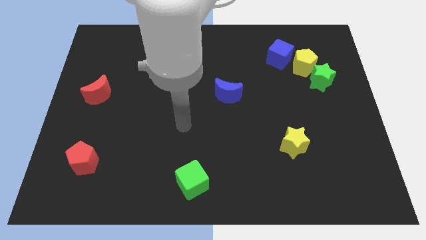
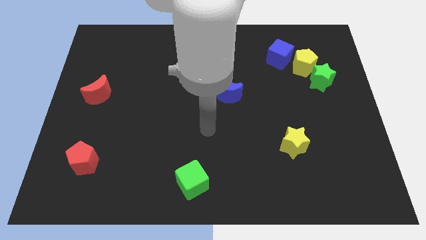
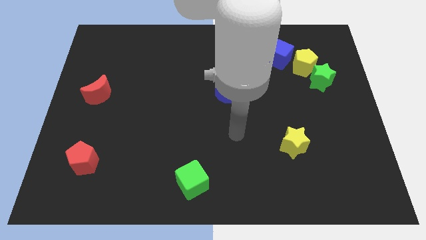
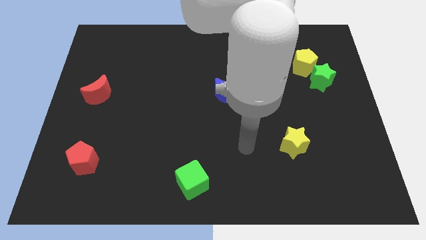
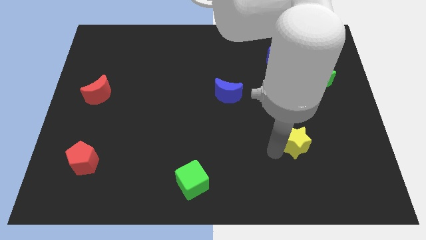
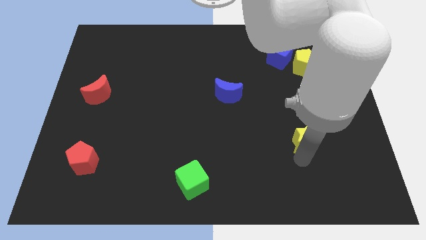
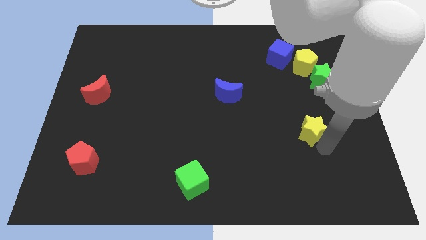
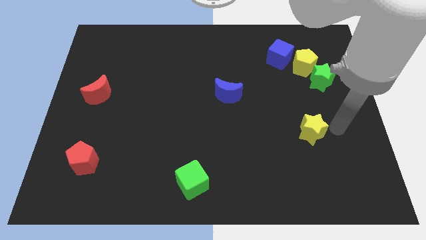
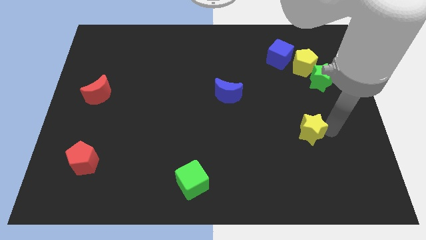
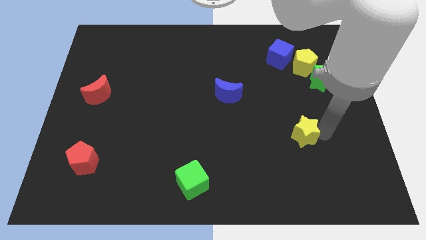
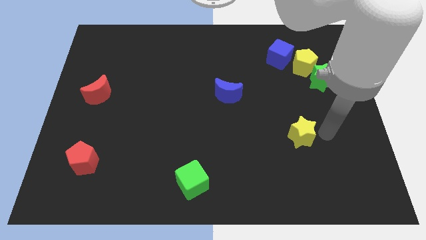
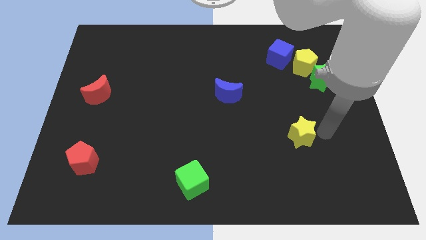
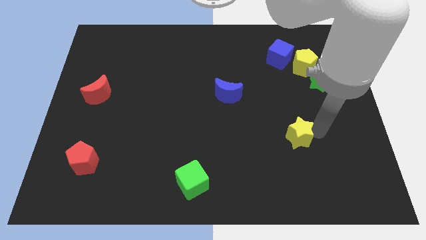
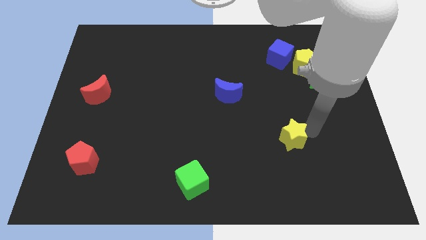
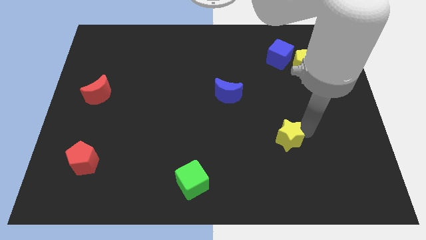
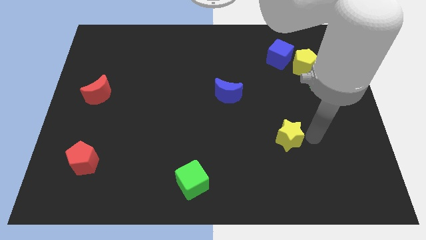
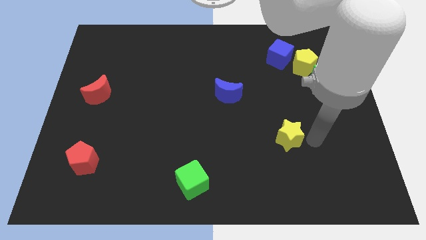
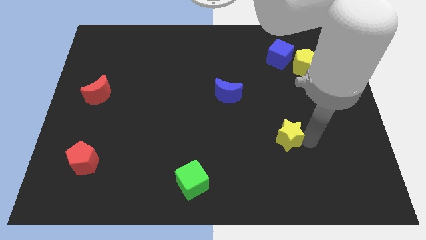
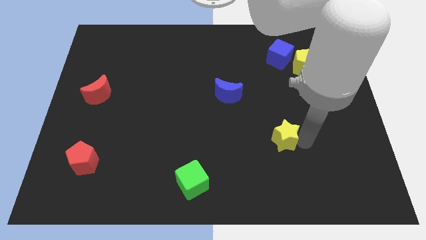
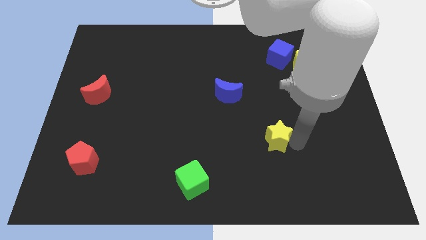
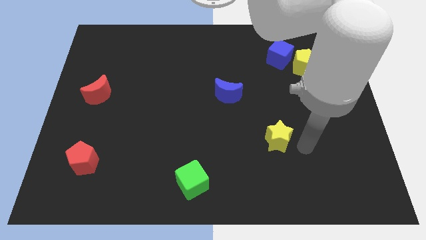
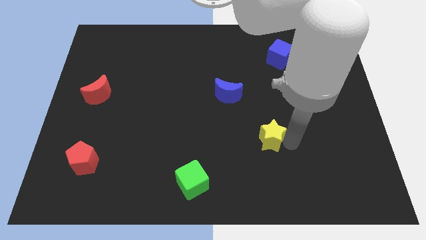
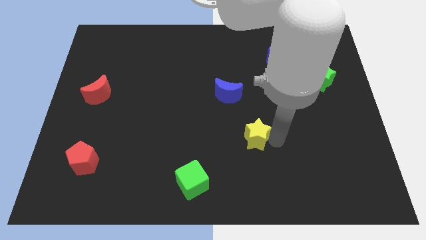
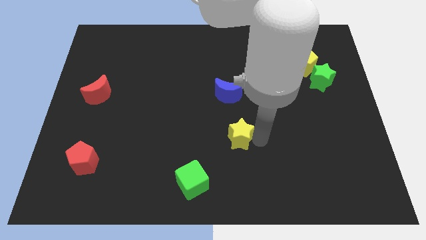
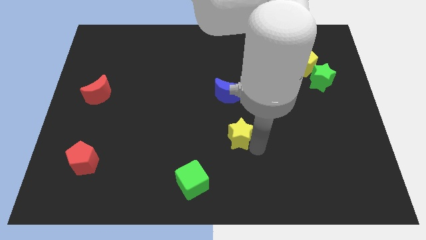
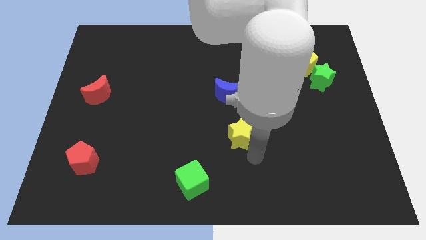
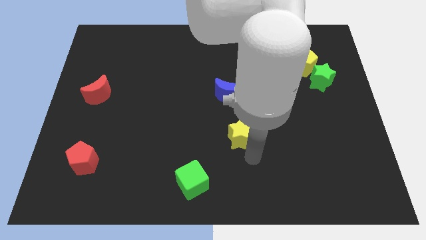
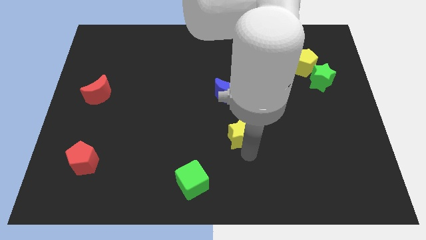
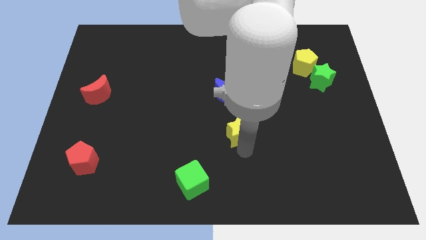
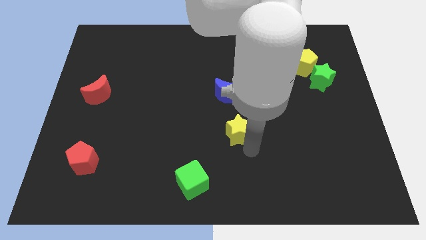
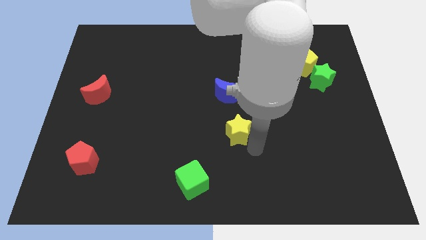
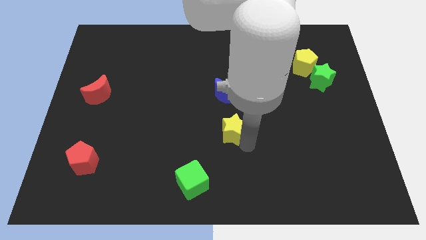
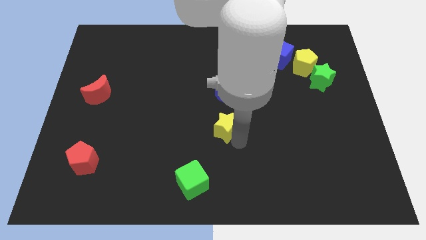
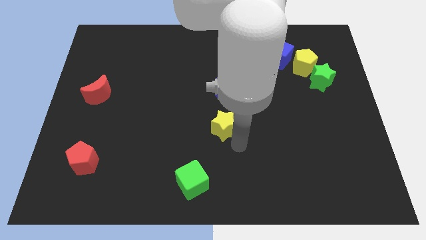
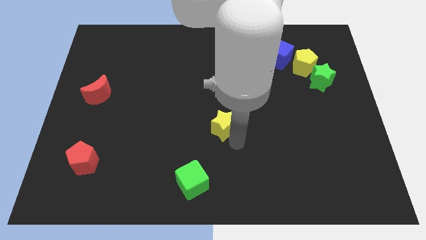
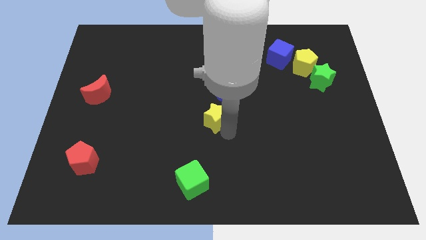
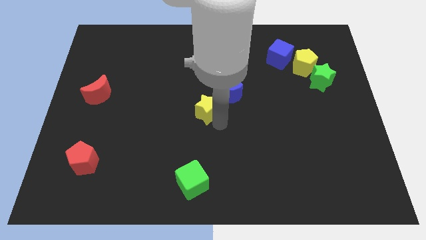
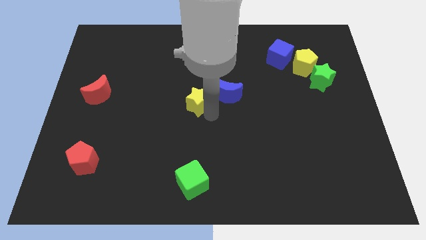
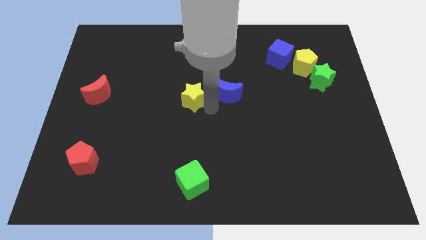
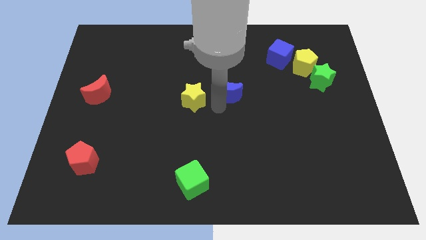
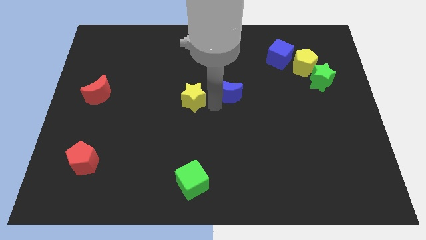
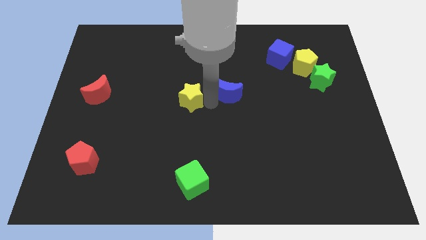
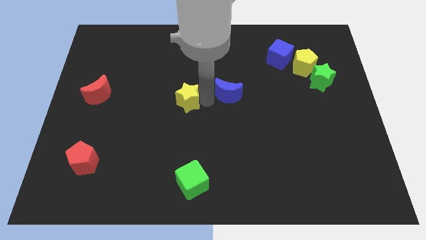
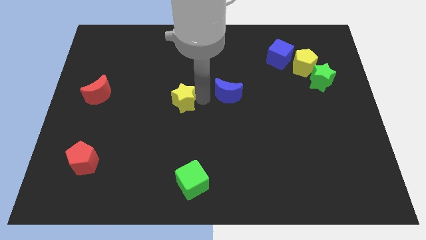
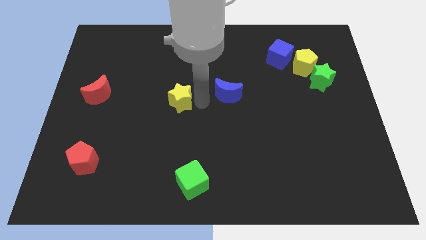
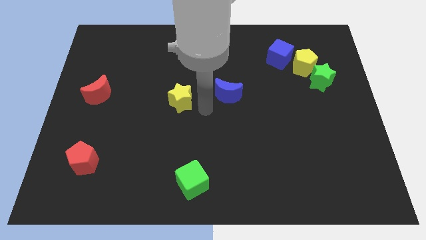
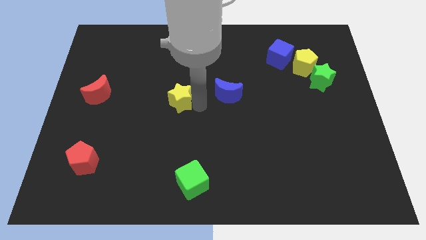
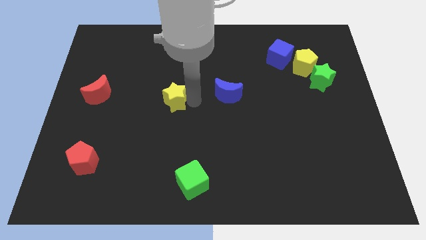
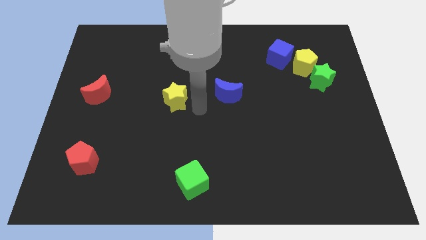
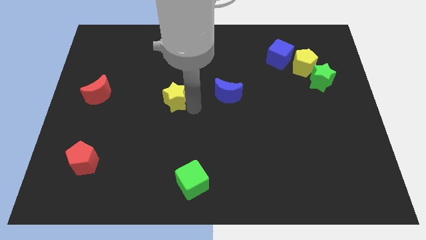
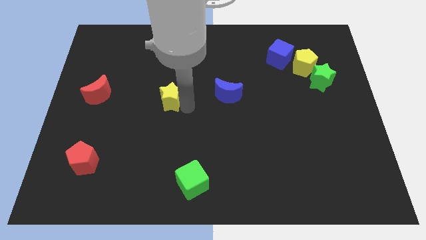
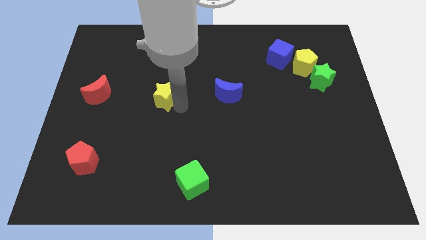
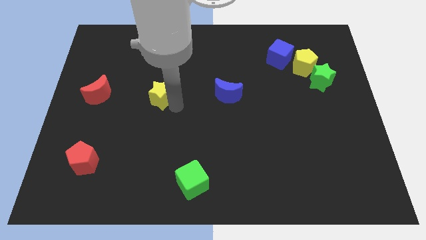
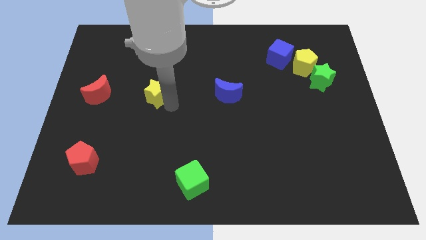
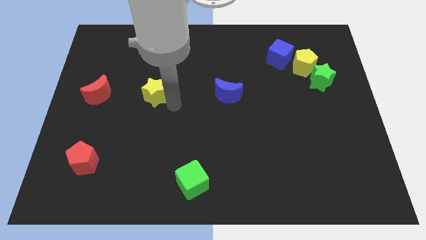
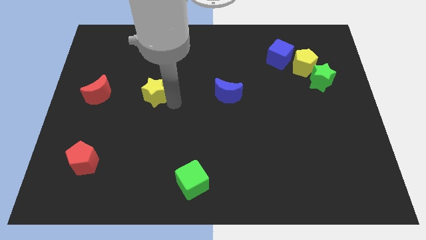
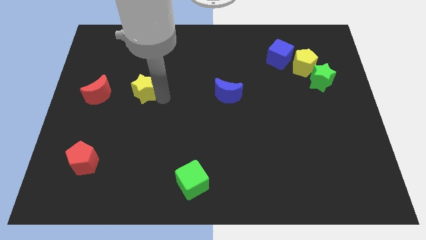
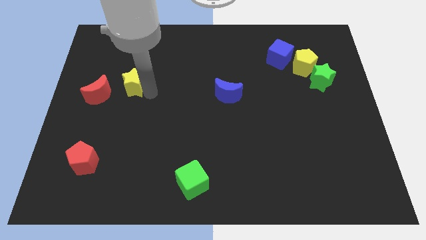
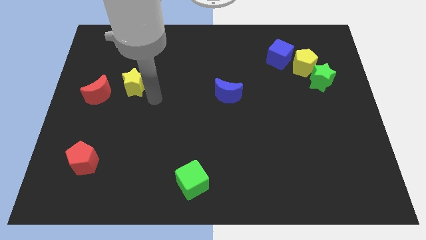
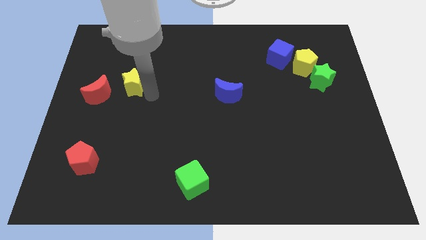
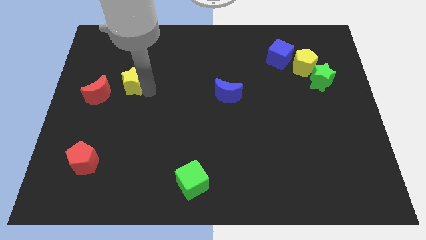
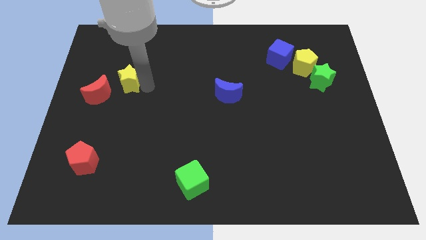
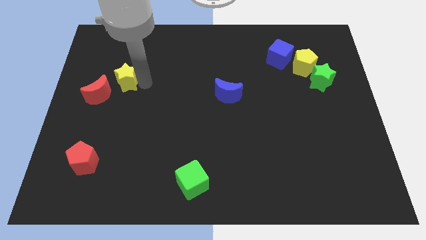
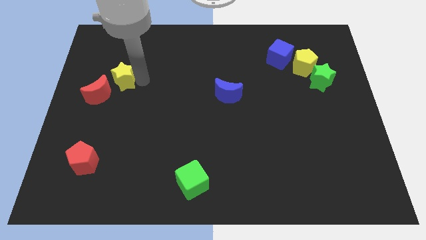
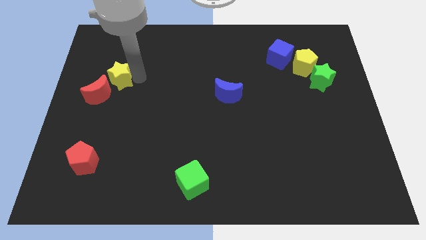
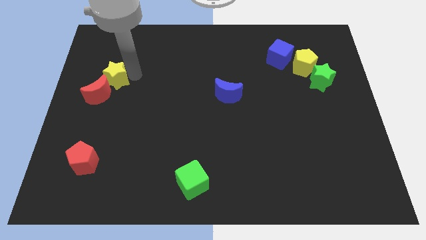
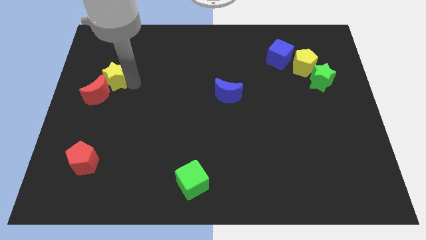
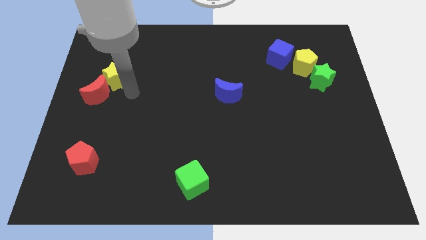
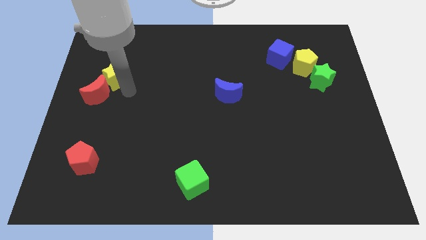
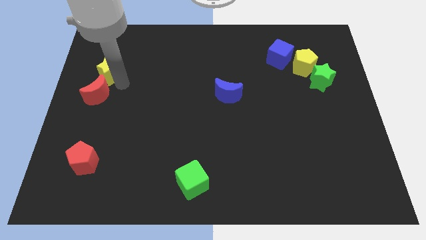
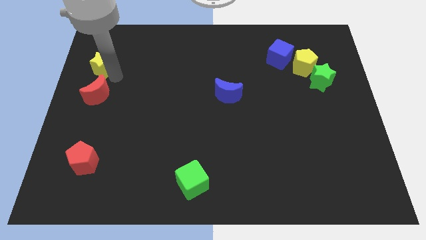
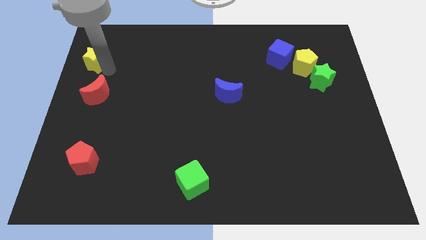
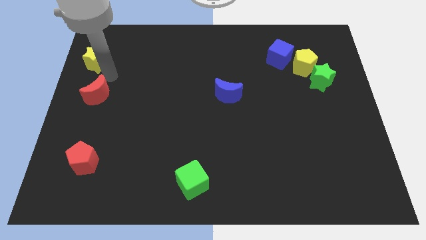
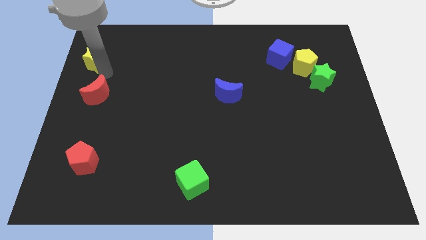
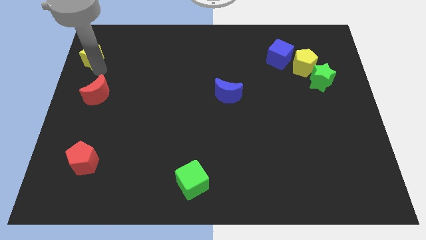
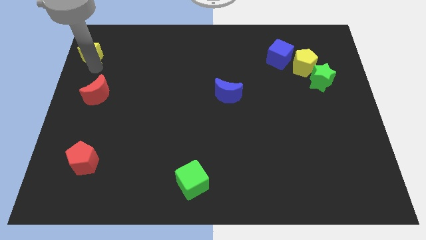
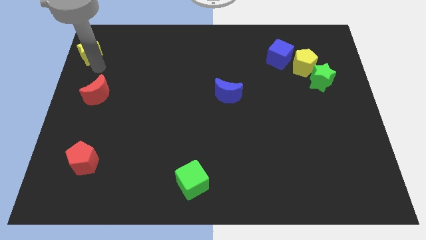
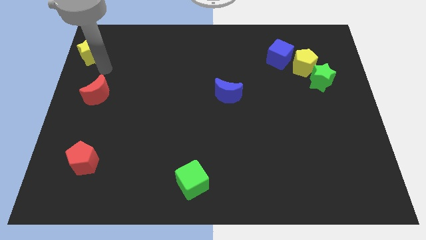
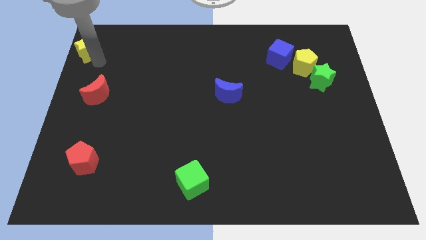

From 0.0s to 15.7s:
slide the yellow star to the top left
